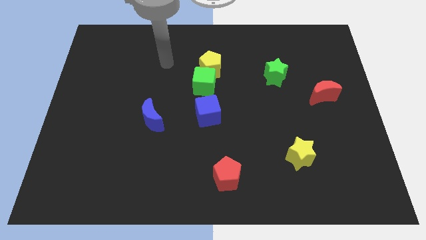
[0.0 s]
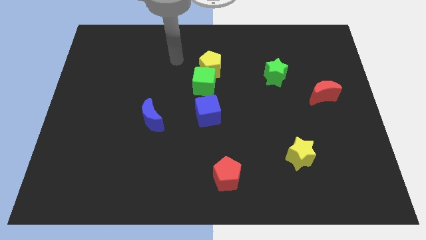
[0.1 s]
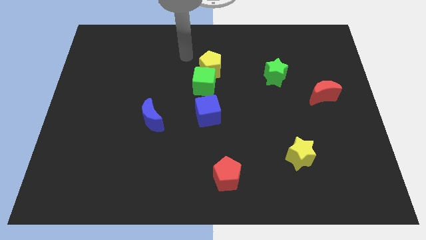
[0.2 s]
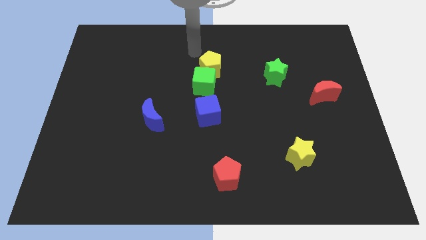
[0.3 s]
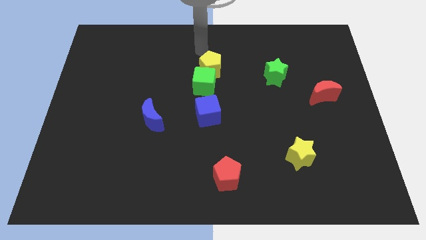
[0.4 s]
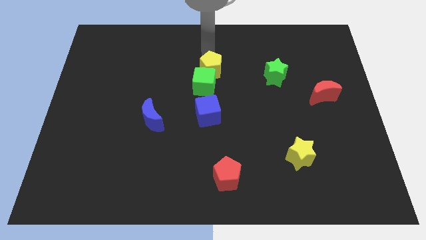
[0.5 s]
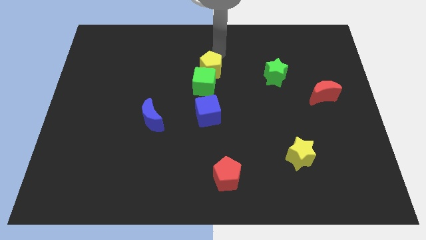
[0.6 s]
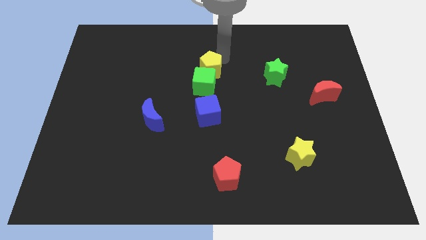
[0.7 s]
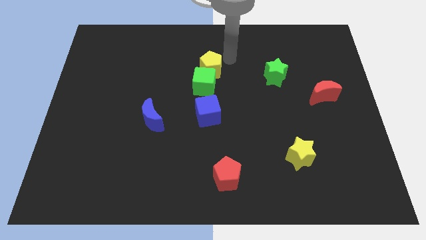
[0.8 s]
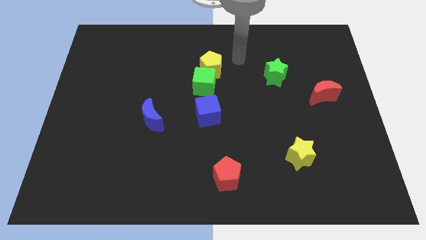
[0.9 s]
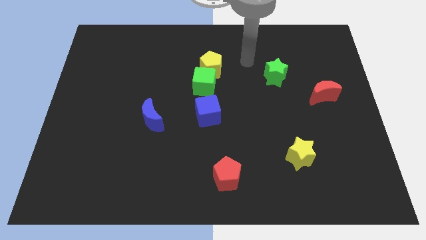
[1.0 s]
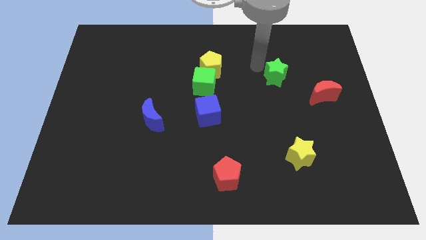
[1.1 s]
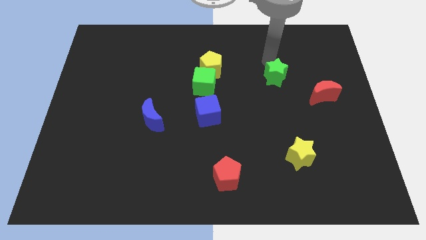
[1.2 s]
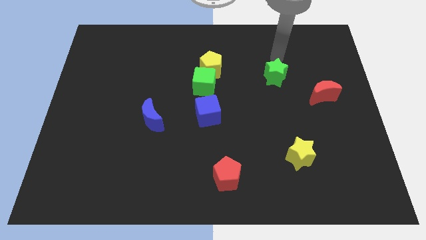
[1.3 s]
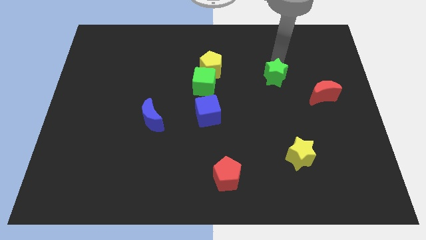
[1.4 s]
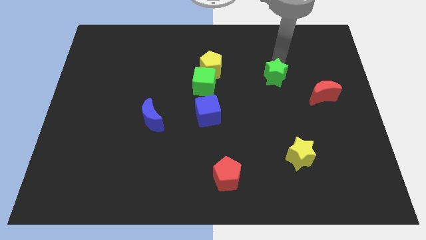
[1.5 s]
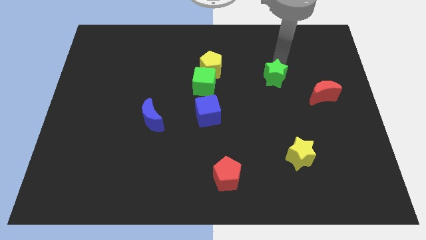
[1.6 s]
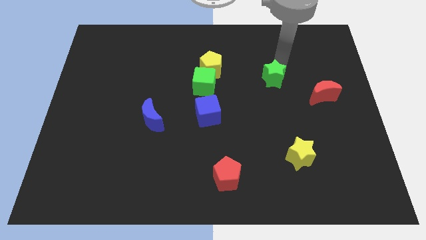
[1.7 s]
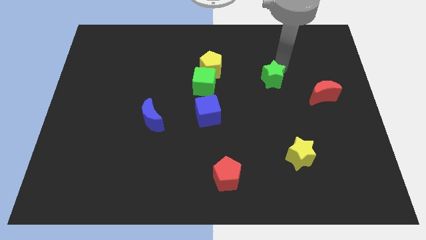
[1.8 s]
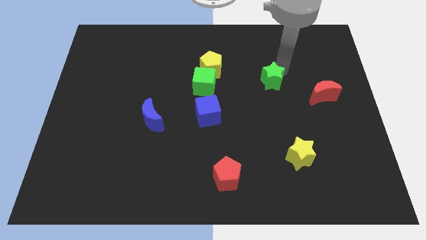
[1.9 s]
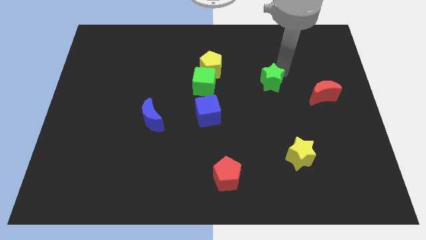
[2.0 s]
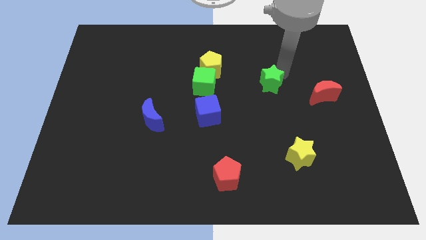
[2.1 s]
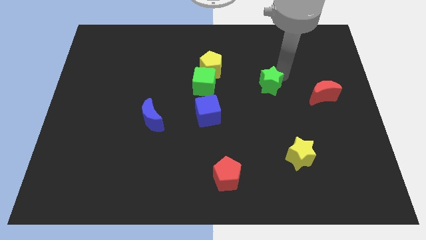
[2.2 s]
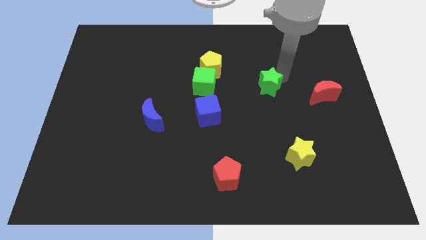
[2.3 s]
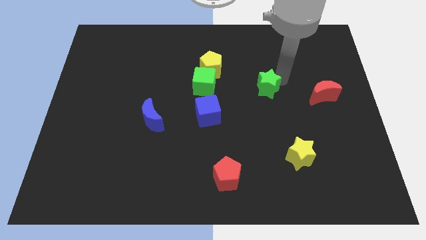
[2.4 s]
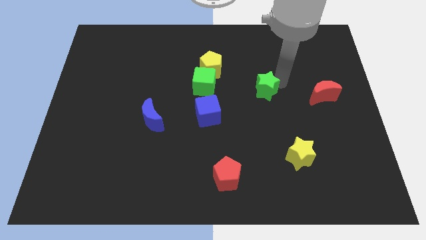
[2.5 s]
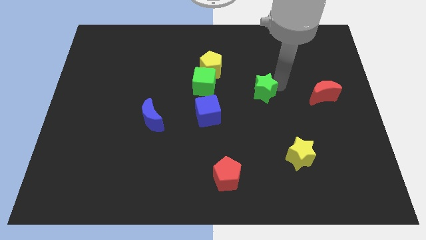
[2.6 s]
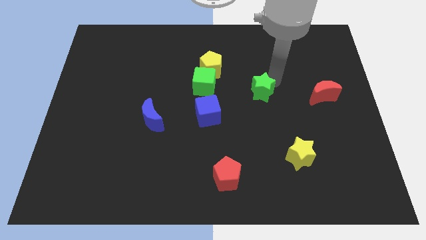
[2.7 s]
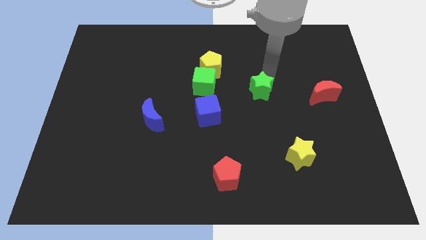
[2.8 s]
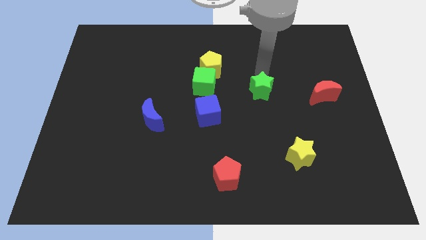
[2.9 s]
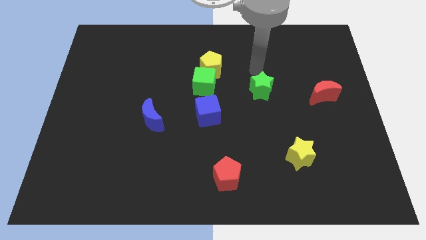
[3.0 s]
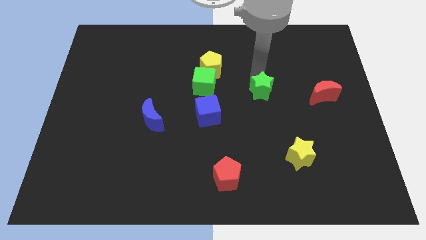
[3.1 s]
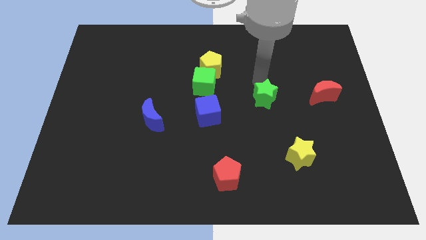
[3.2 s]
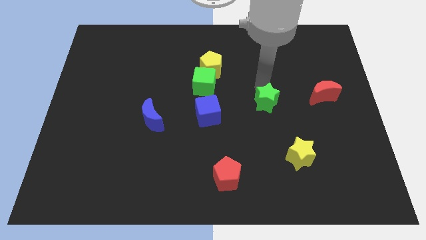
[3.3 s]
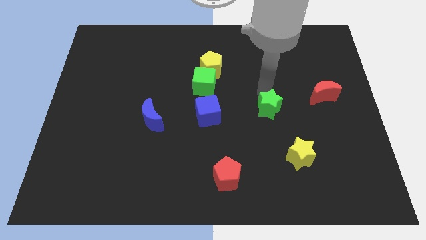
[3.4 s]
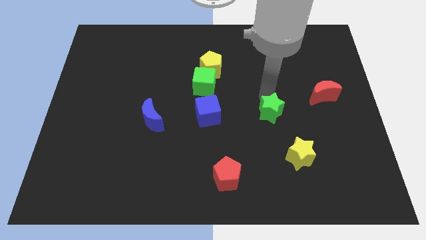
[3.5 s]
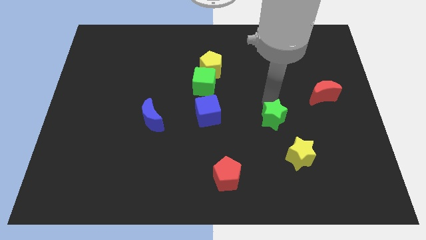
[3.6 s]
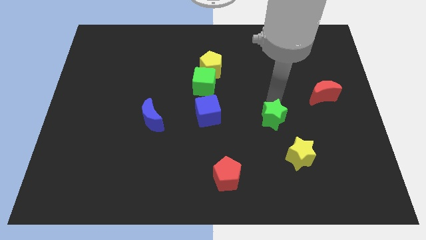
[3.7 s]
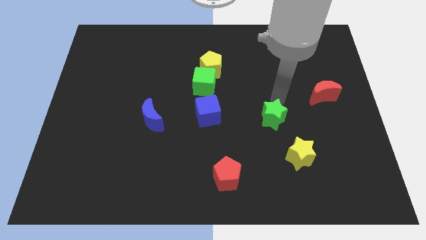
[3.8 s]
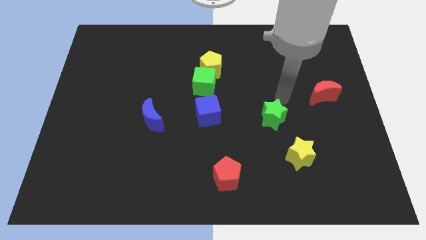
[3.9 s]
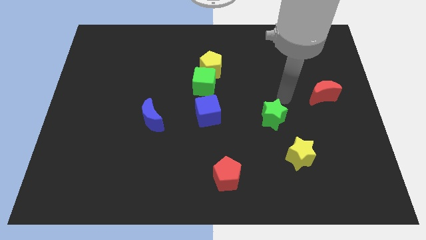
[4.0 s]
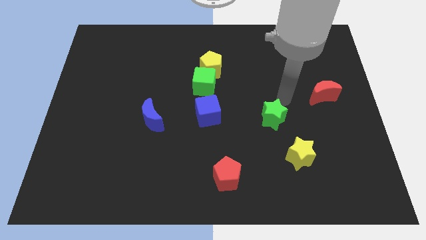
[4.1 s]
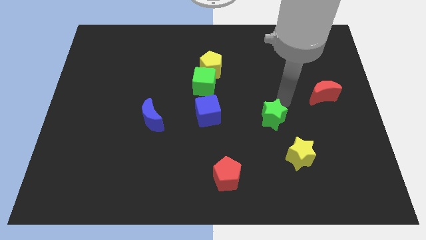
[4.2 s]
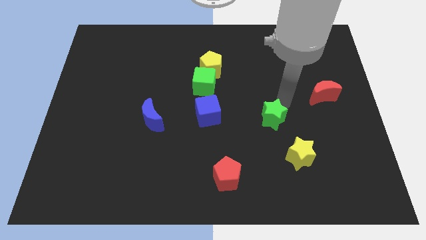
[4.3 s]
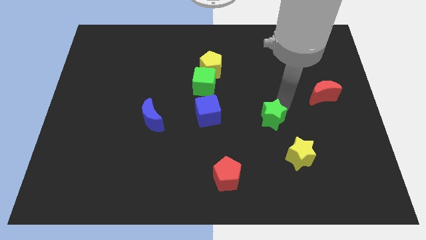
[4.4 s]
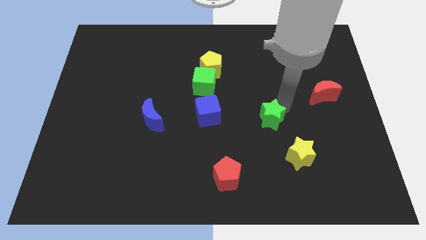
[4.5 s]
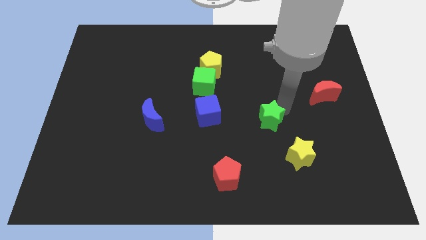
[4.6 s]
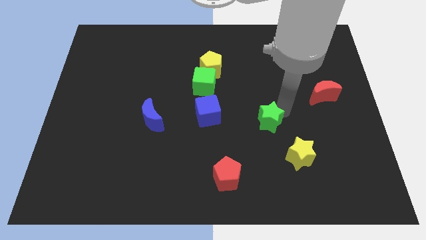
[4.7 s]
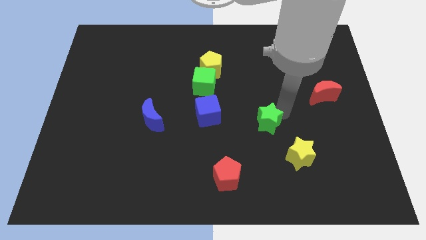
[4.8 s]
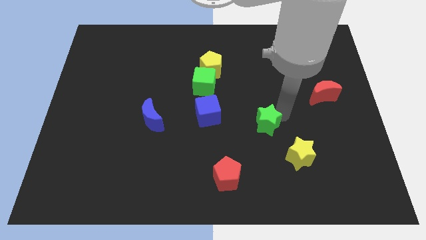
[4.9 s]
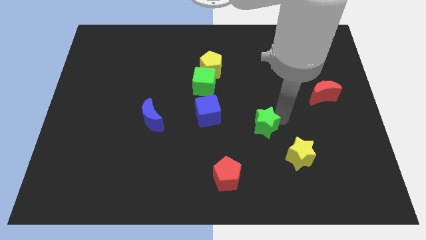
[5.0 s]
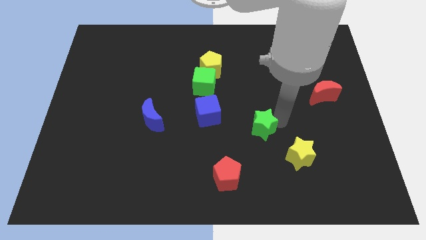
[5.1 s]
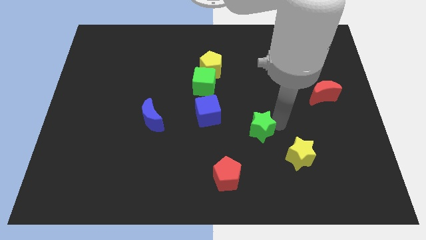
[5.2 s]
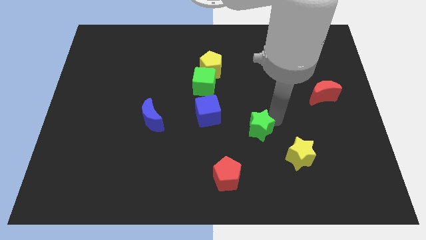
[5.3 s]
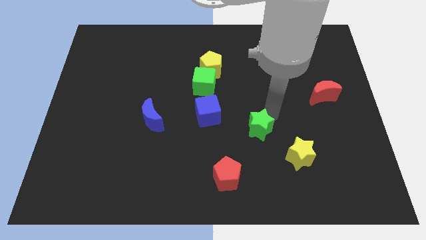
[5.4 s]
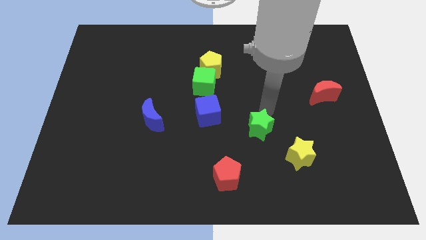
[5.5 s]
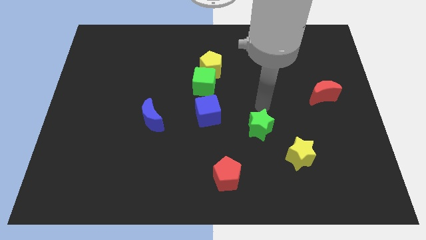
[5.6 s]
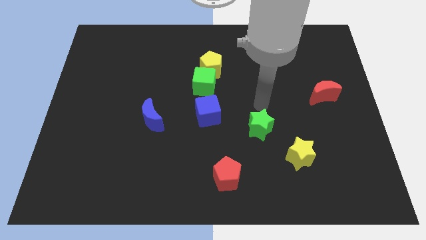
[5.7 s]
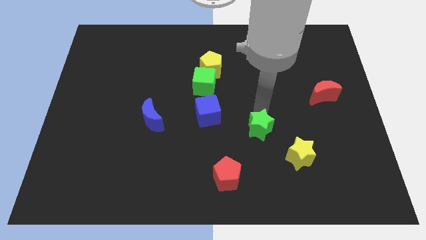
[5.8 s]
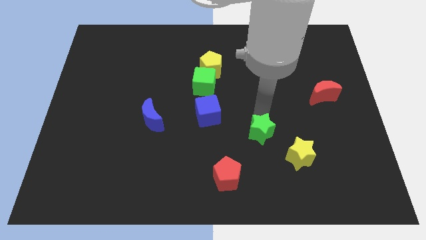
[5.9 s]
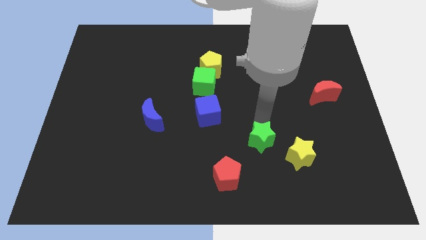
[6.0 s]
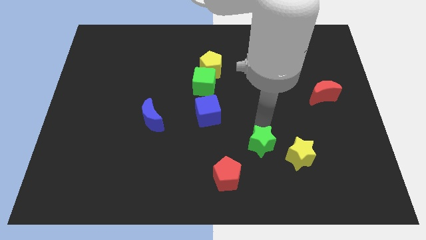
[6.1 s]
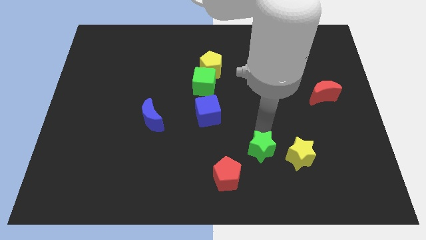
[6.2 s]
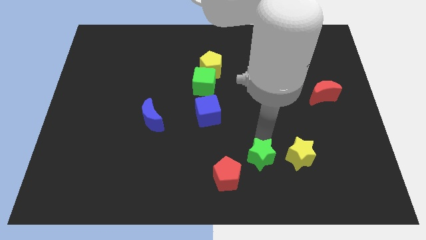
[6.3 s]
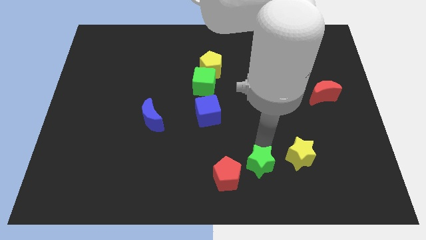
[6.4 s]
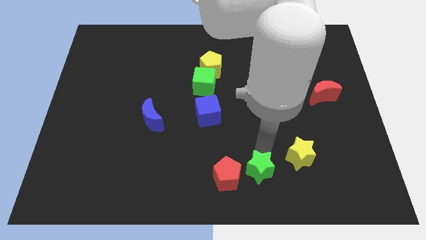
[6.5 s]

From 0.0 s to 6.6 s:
move the green star to the bottom
